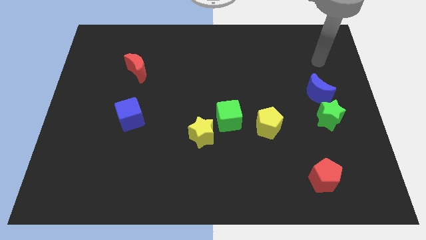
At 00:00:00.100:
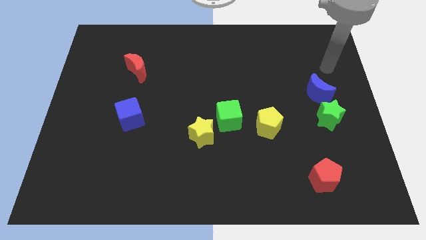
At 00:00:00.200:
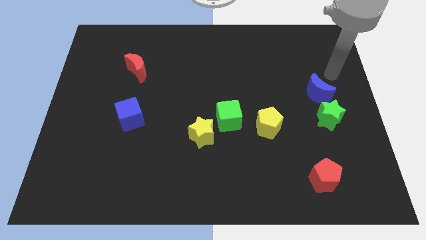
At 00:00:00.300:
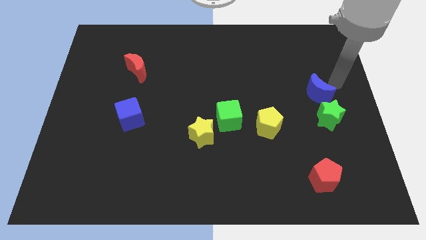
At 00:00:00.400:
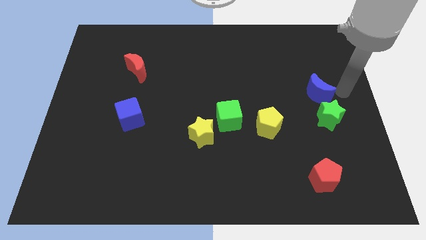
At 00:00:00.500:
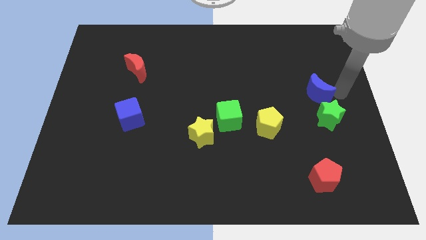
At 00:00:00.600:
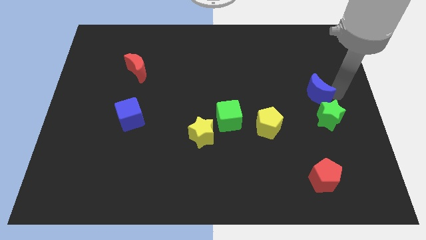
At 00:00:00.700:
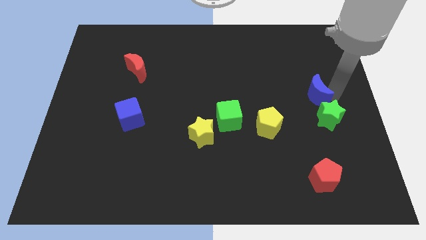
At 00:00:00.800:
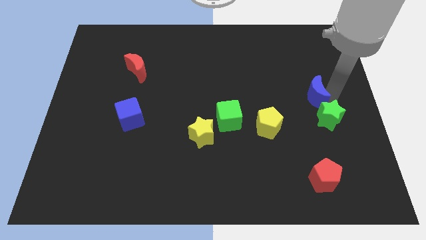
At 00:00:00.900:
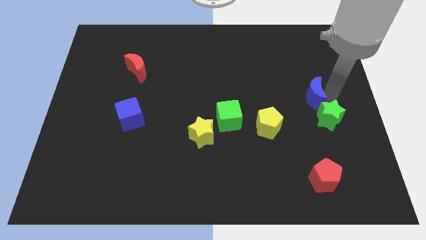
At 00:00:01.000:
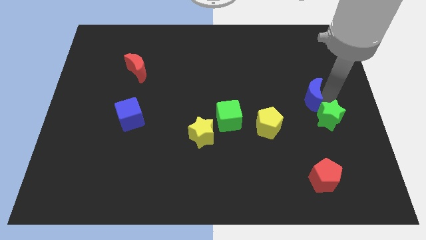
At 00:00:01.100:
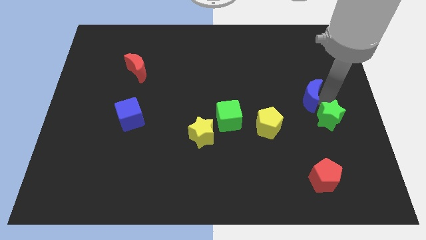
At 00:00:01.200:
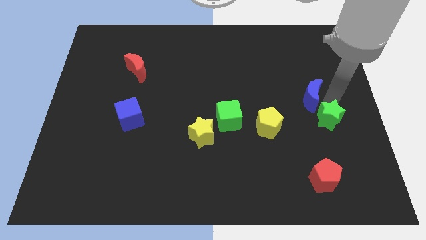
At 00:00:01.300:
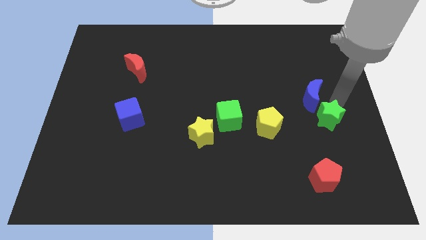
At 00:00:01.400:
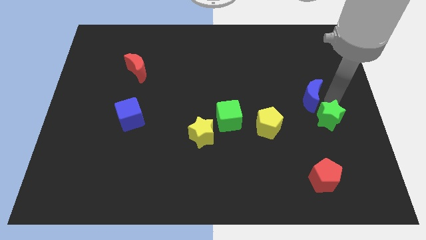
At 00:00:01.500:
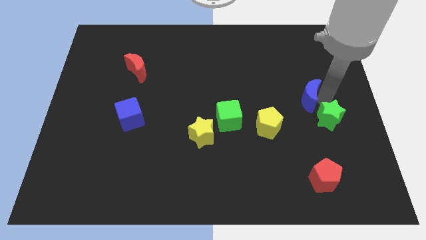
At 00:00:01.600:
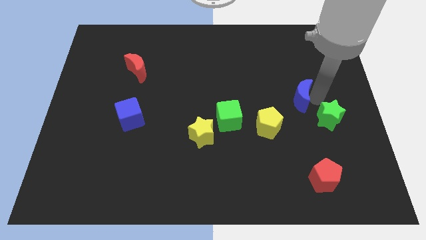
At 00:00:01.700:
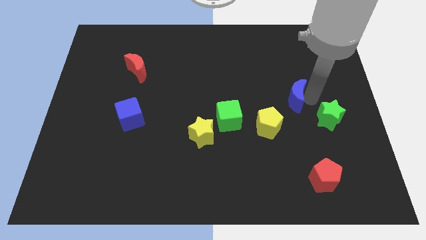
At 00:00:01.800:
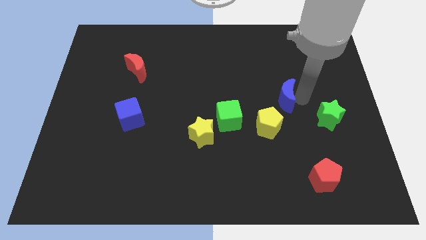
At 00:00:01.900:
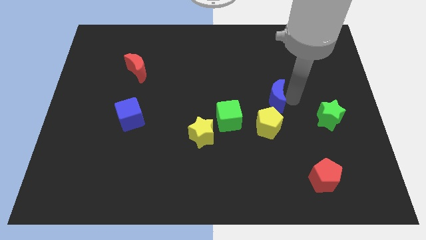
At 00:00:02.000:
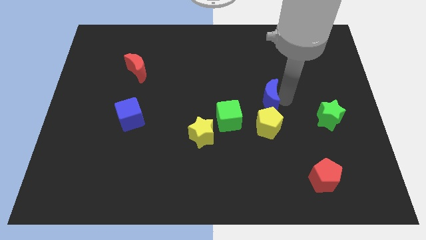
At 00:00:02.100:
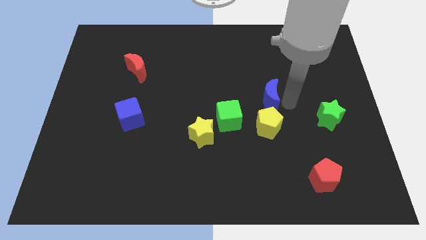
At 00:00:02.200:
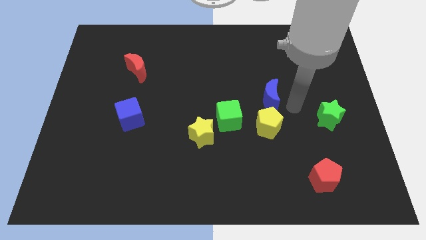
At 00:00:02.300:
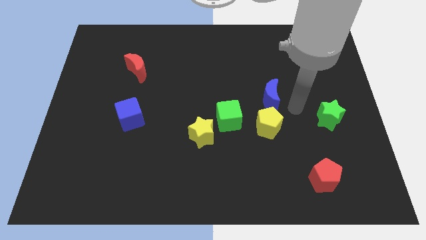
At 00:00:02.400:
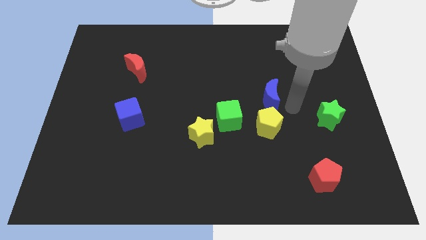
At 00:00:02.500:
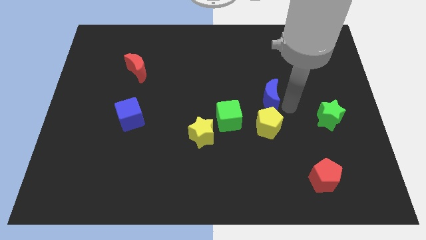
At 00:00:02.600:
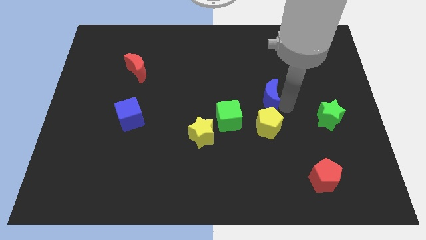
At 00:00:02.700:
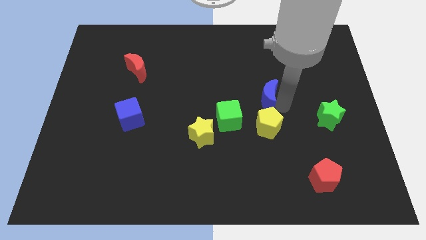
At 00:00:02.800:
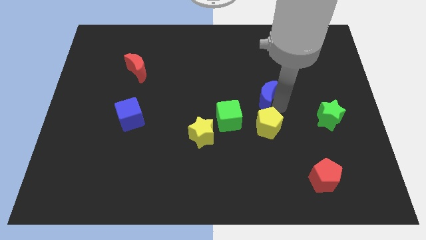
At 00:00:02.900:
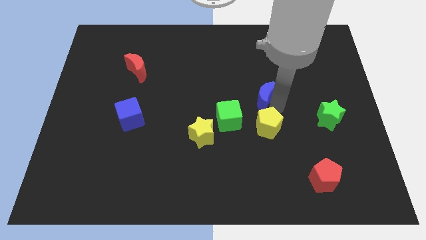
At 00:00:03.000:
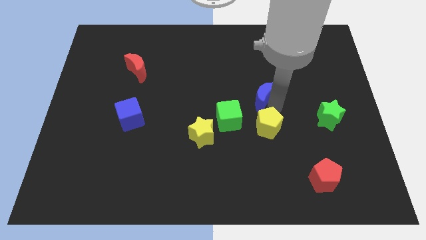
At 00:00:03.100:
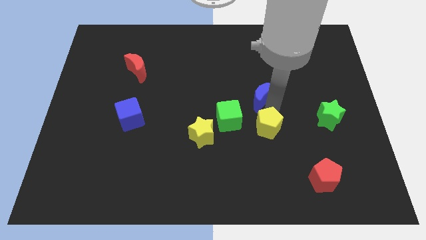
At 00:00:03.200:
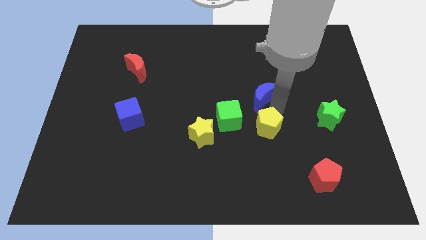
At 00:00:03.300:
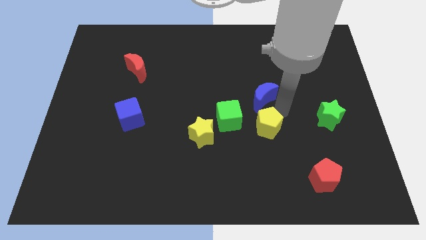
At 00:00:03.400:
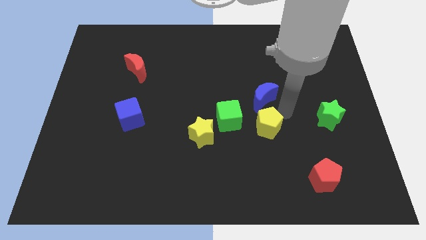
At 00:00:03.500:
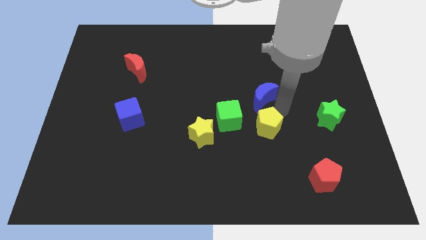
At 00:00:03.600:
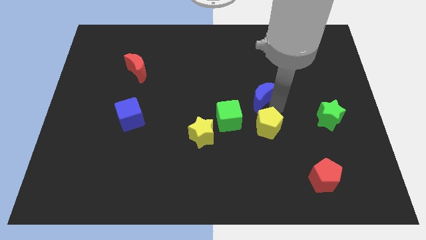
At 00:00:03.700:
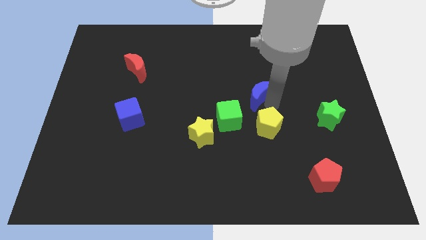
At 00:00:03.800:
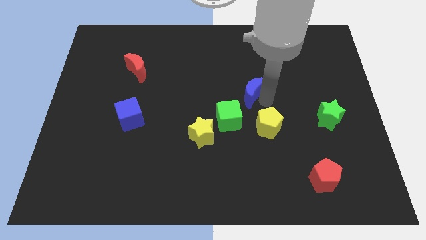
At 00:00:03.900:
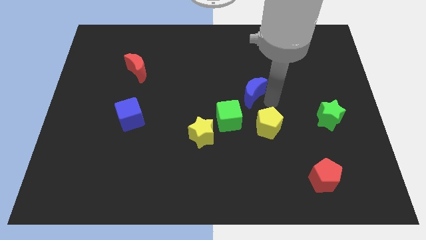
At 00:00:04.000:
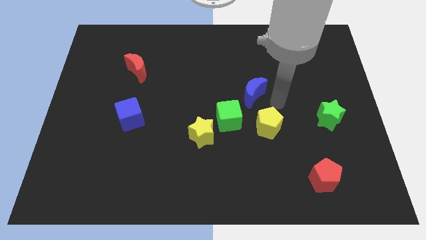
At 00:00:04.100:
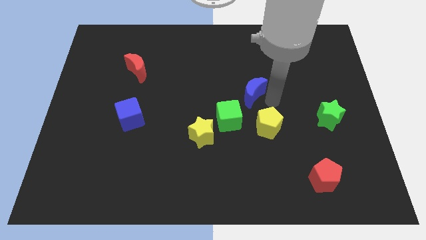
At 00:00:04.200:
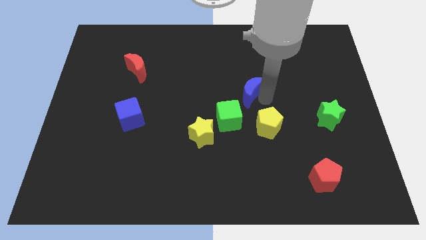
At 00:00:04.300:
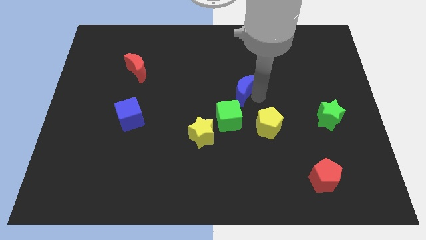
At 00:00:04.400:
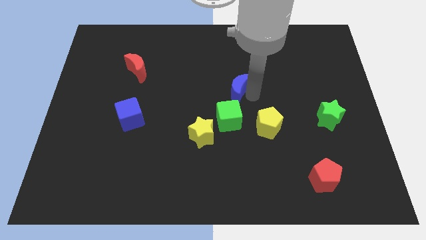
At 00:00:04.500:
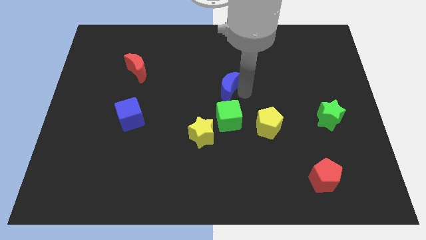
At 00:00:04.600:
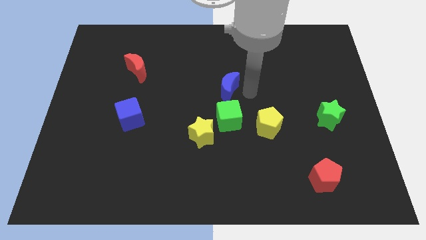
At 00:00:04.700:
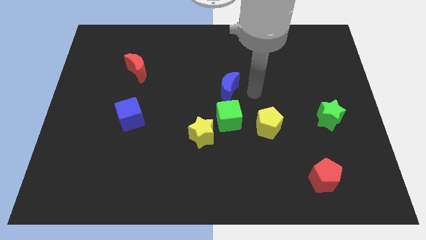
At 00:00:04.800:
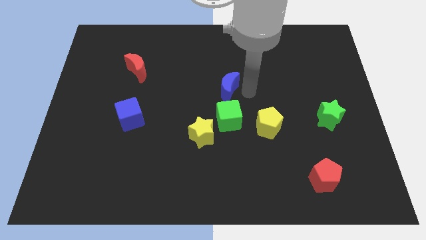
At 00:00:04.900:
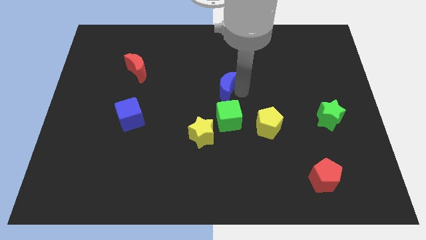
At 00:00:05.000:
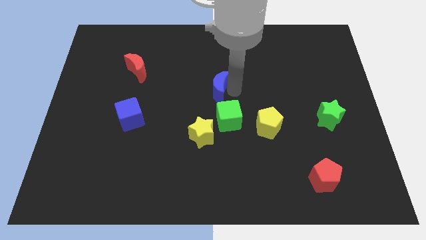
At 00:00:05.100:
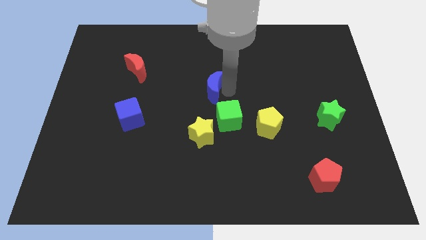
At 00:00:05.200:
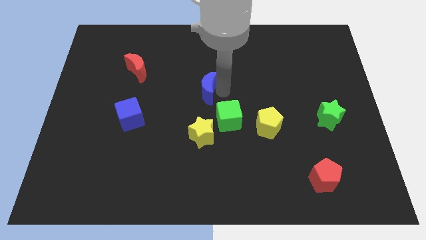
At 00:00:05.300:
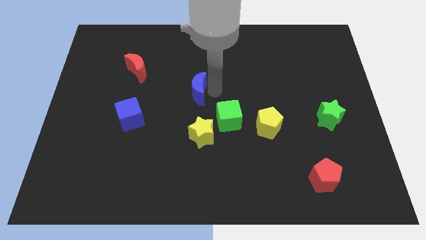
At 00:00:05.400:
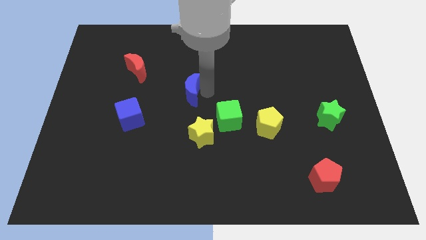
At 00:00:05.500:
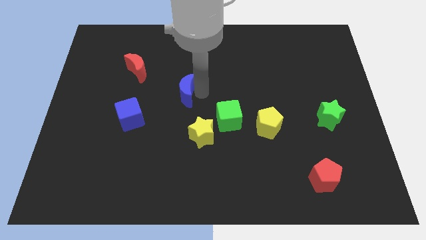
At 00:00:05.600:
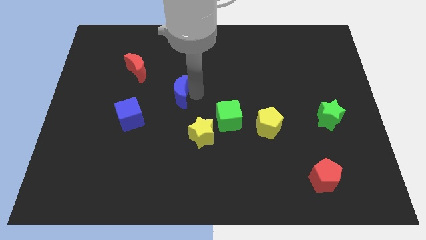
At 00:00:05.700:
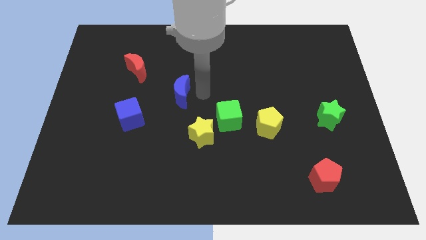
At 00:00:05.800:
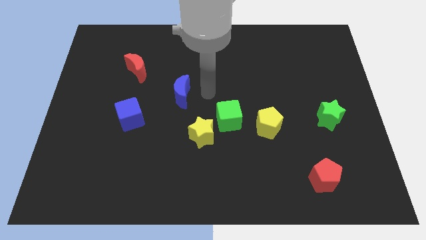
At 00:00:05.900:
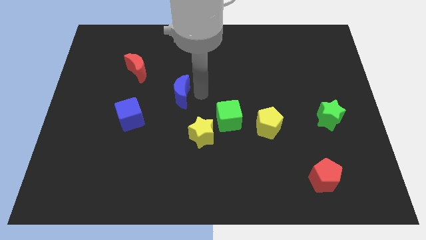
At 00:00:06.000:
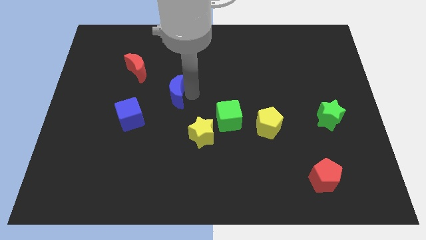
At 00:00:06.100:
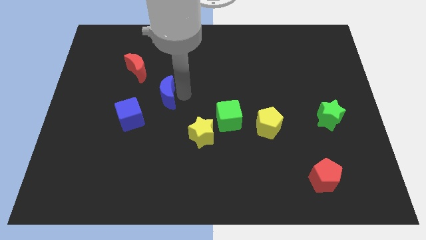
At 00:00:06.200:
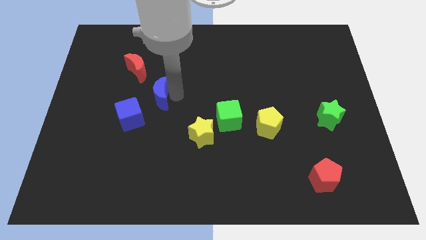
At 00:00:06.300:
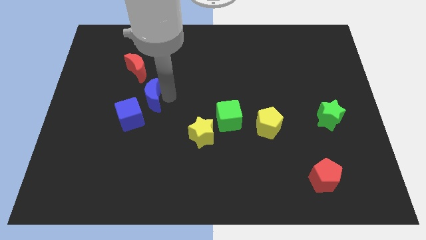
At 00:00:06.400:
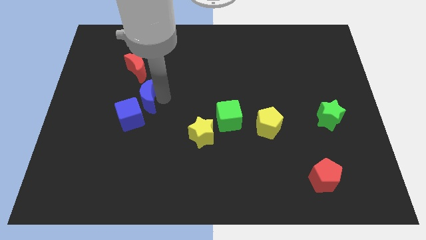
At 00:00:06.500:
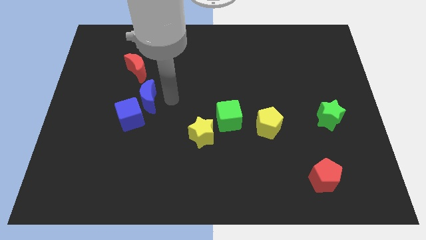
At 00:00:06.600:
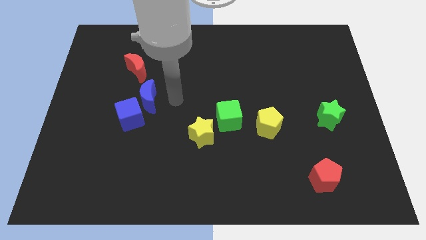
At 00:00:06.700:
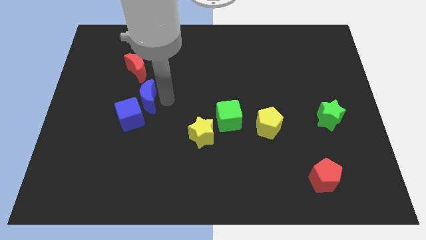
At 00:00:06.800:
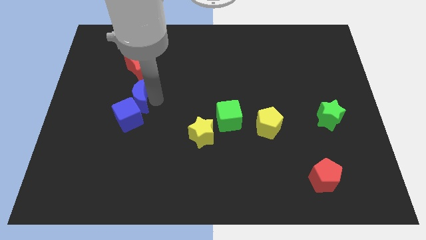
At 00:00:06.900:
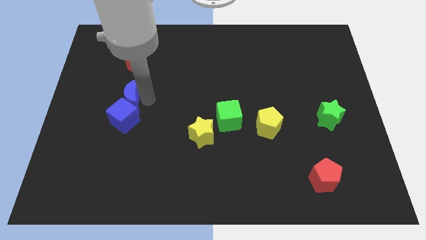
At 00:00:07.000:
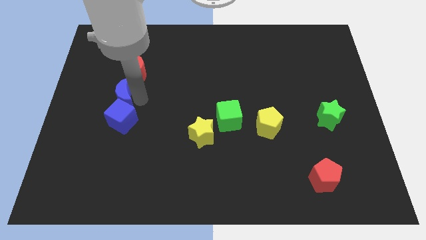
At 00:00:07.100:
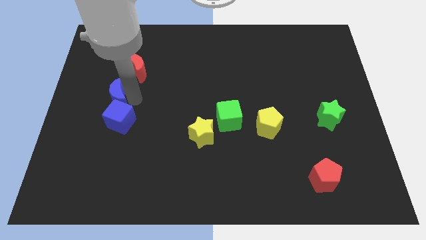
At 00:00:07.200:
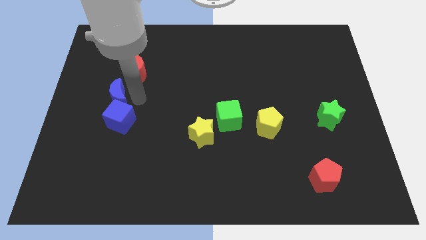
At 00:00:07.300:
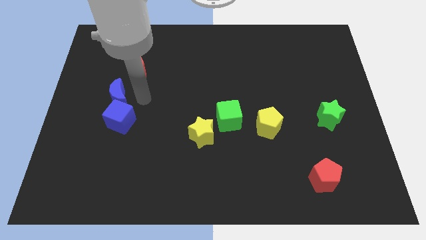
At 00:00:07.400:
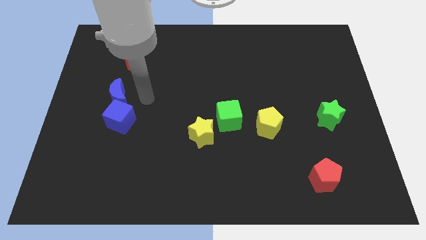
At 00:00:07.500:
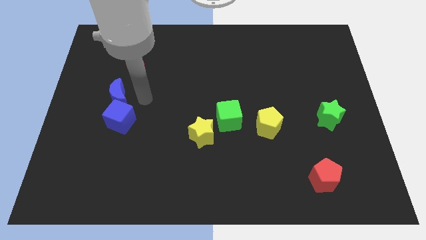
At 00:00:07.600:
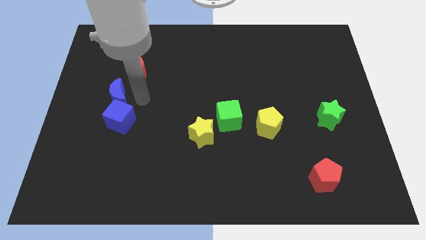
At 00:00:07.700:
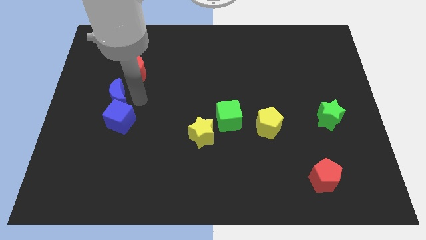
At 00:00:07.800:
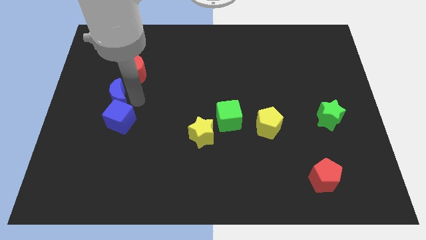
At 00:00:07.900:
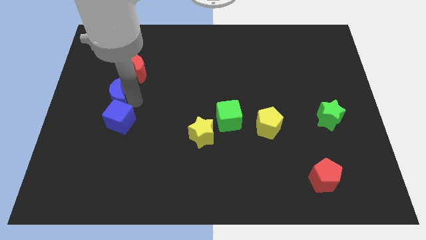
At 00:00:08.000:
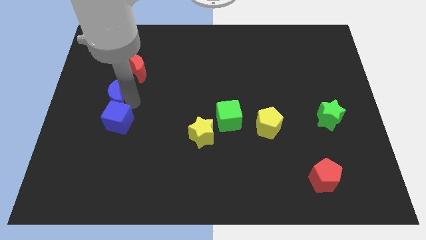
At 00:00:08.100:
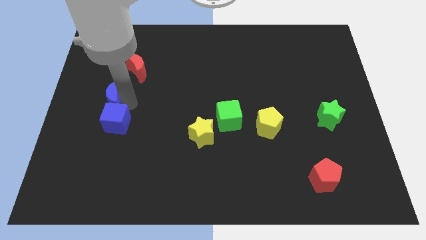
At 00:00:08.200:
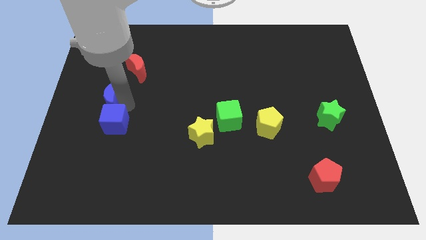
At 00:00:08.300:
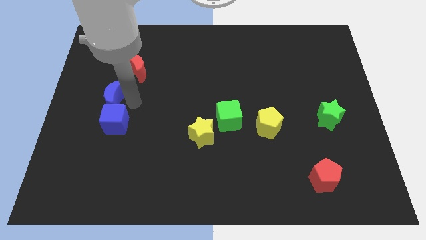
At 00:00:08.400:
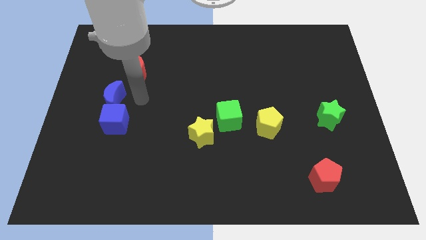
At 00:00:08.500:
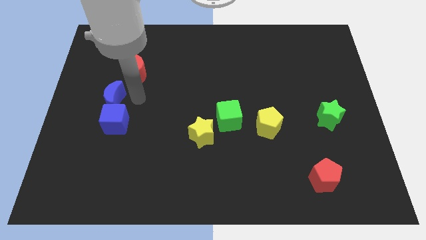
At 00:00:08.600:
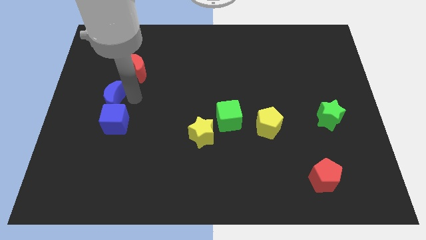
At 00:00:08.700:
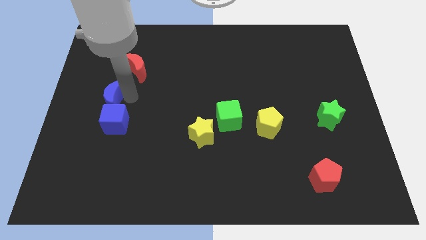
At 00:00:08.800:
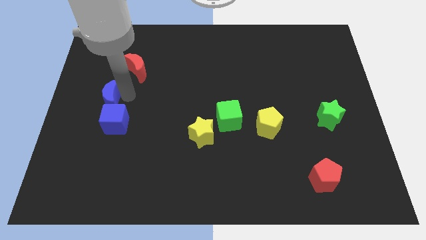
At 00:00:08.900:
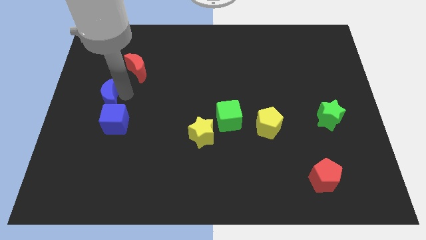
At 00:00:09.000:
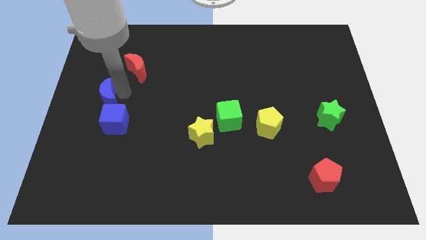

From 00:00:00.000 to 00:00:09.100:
slide the blue moon to the center left
